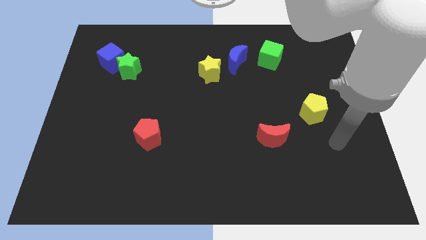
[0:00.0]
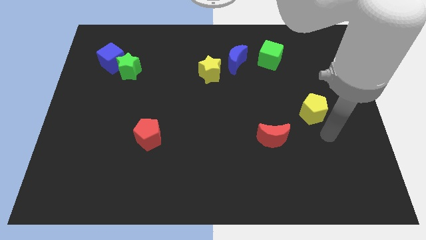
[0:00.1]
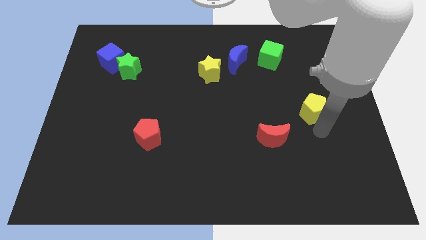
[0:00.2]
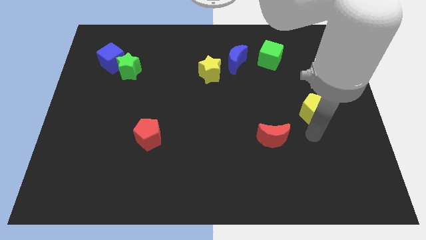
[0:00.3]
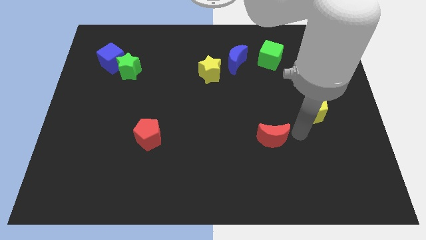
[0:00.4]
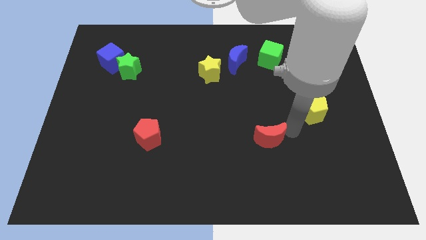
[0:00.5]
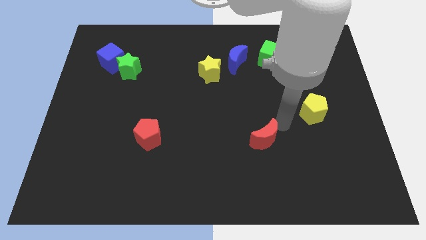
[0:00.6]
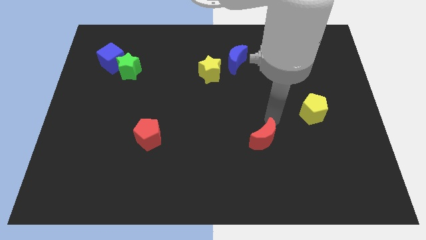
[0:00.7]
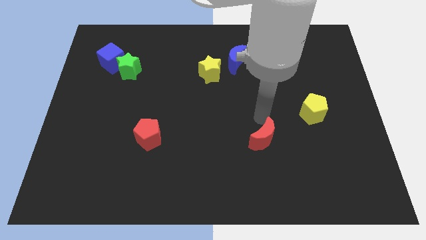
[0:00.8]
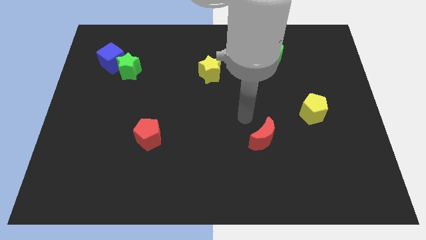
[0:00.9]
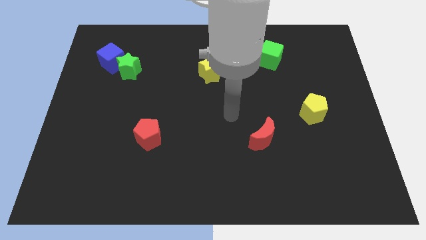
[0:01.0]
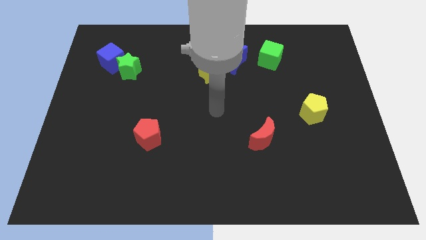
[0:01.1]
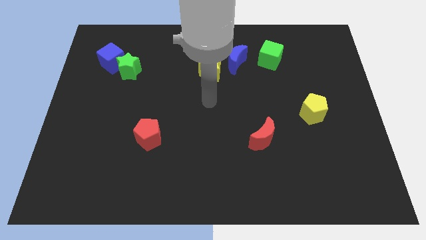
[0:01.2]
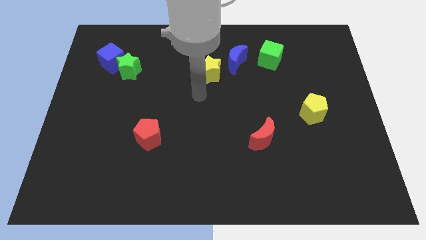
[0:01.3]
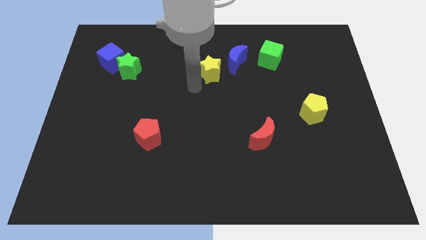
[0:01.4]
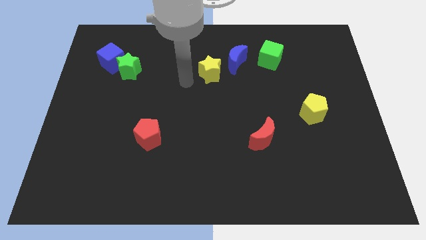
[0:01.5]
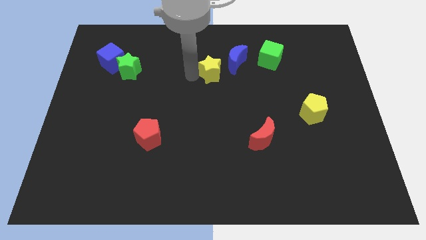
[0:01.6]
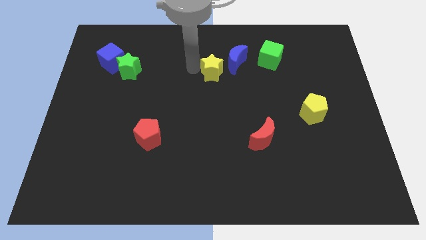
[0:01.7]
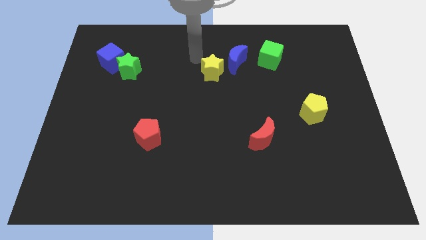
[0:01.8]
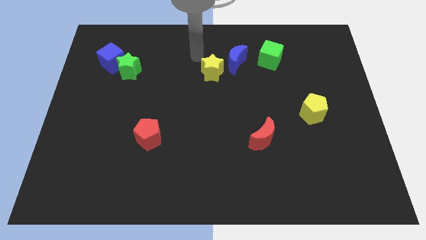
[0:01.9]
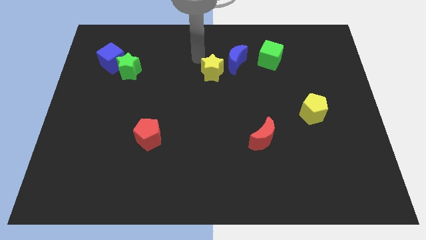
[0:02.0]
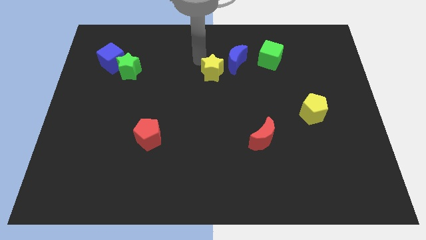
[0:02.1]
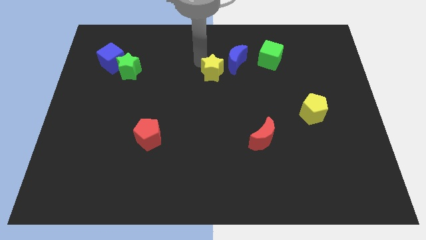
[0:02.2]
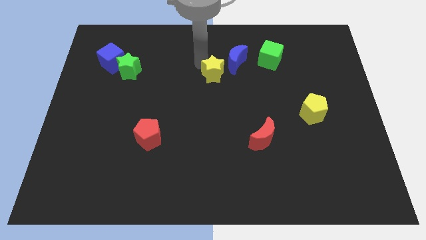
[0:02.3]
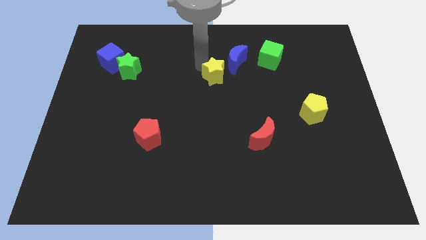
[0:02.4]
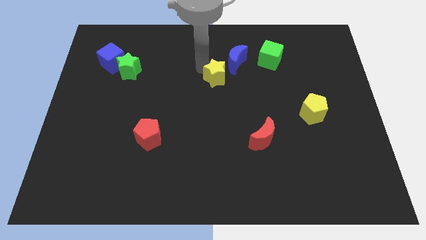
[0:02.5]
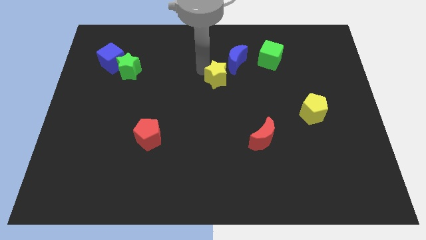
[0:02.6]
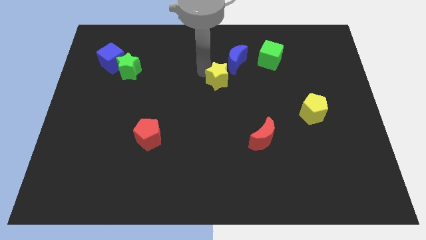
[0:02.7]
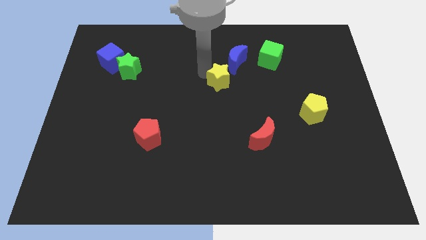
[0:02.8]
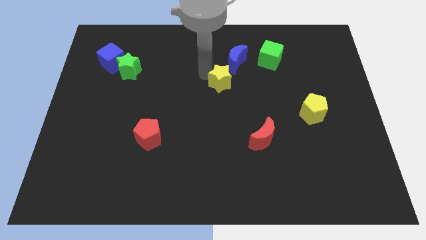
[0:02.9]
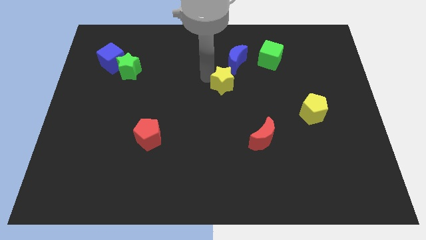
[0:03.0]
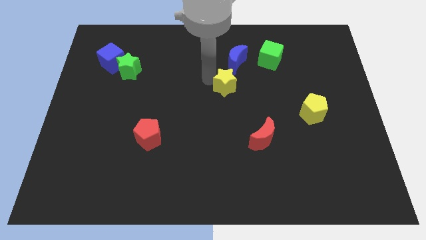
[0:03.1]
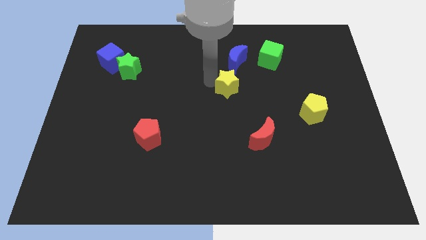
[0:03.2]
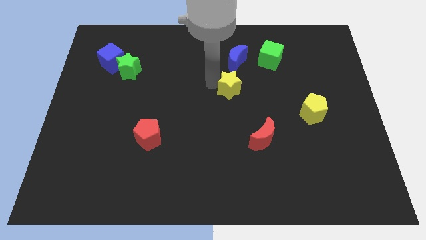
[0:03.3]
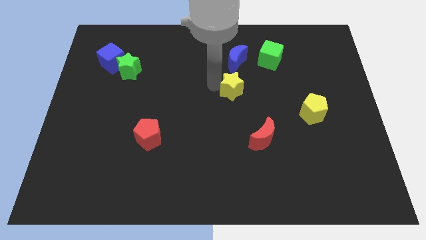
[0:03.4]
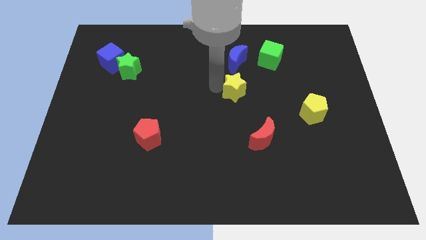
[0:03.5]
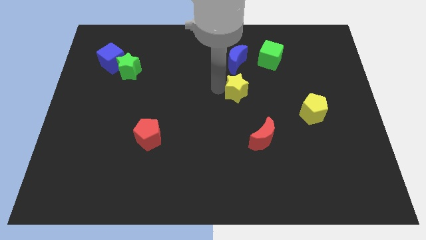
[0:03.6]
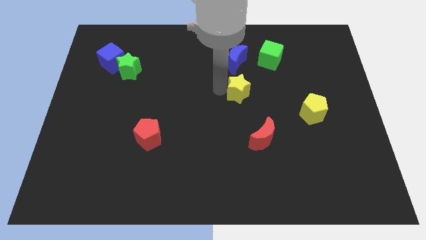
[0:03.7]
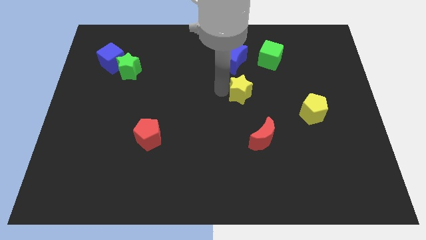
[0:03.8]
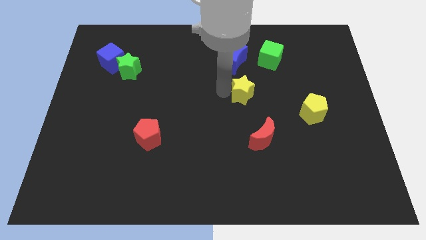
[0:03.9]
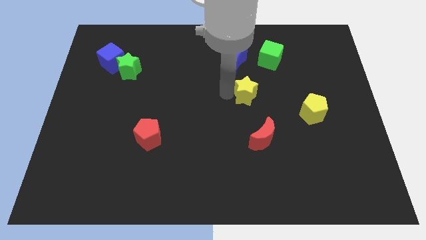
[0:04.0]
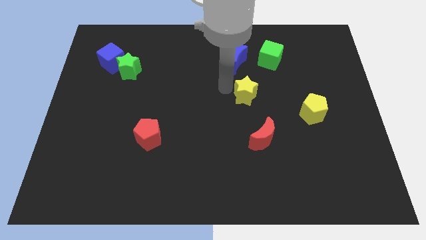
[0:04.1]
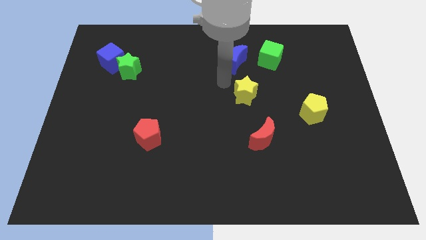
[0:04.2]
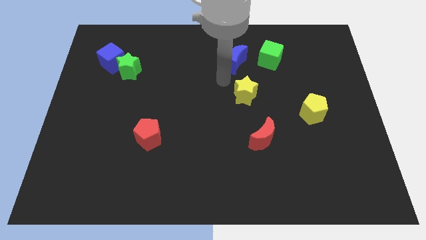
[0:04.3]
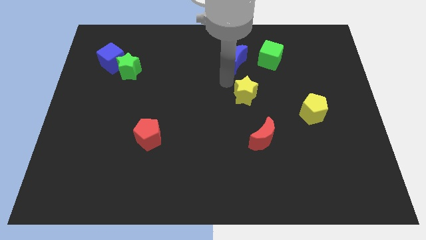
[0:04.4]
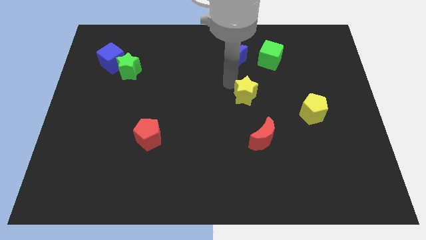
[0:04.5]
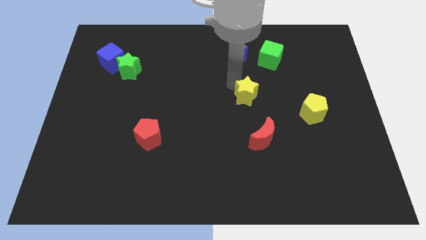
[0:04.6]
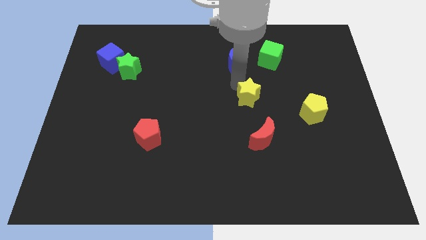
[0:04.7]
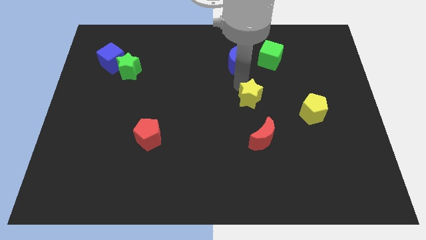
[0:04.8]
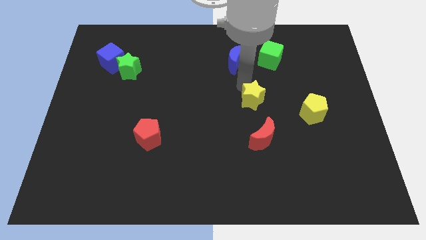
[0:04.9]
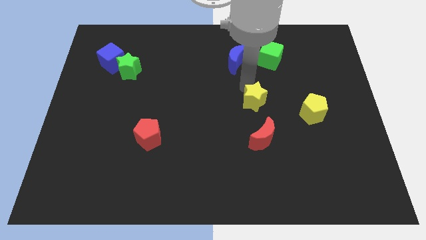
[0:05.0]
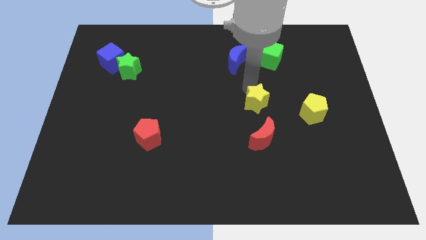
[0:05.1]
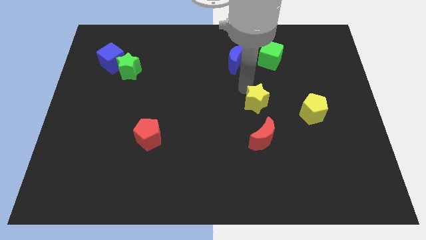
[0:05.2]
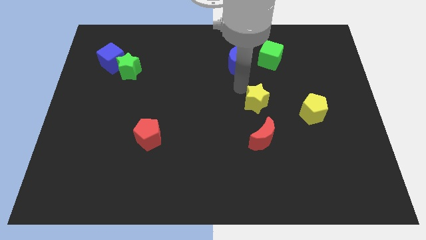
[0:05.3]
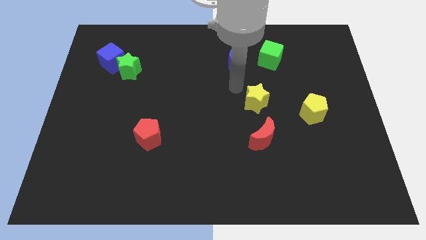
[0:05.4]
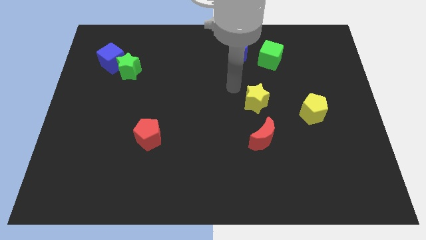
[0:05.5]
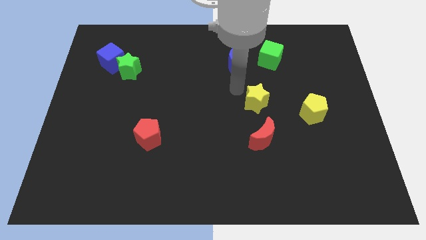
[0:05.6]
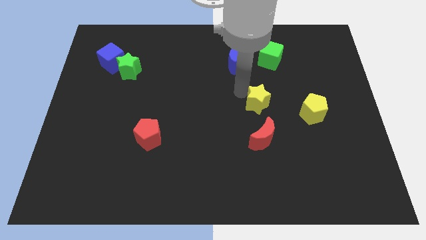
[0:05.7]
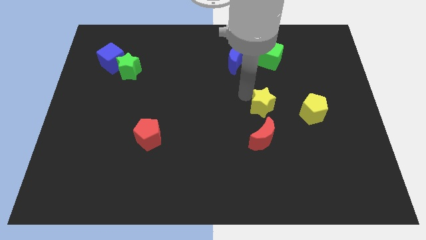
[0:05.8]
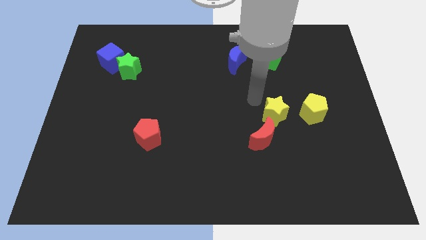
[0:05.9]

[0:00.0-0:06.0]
move the yellow star down and right diagonally

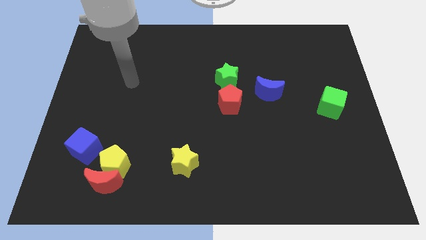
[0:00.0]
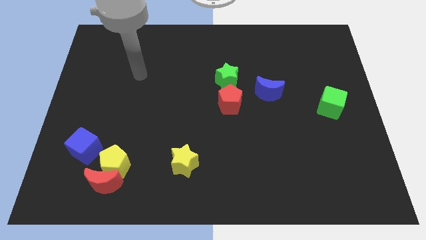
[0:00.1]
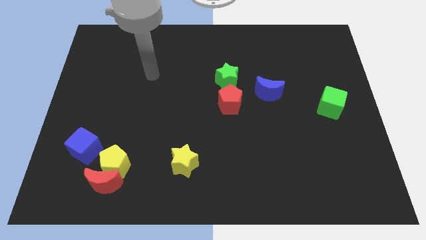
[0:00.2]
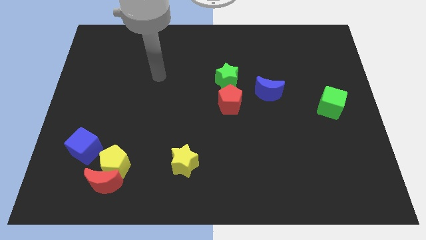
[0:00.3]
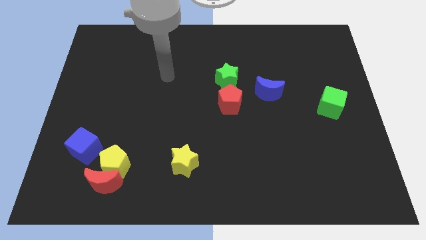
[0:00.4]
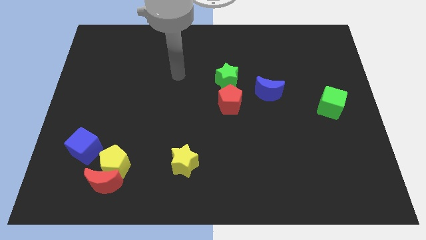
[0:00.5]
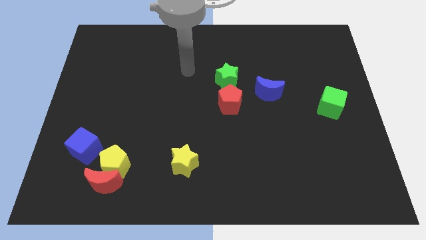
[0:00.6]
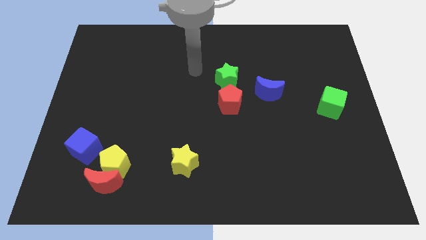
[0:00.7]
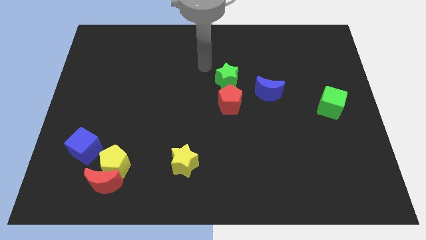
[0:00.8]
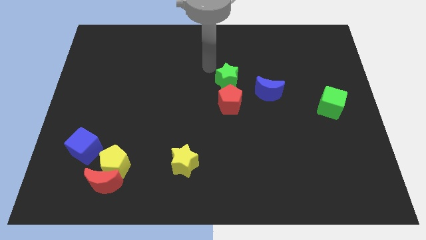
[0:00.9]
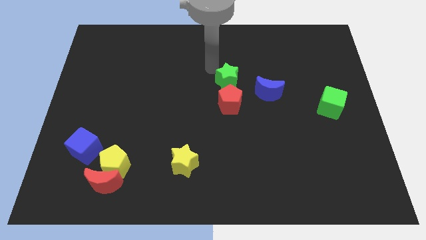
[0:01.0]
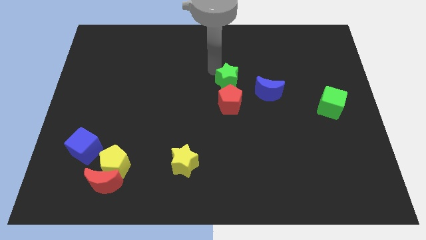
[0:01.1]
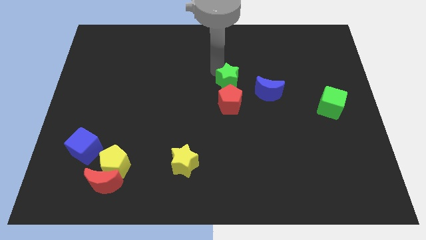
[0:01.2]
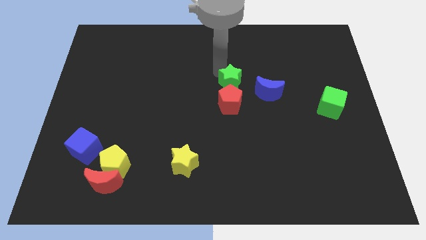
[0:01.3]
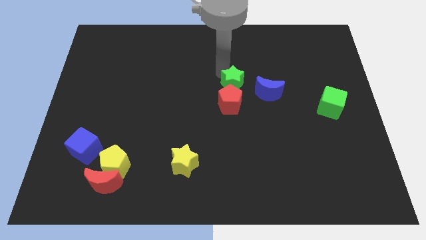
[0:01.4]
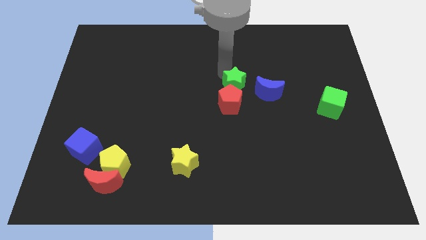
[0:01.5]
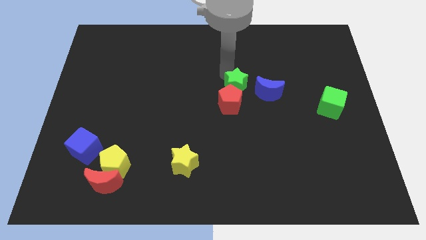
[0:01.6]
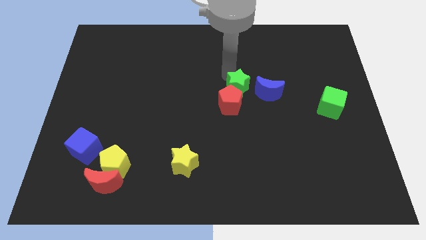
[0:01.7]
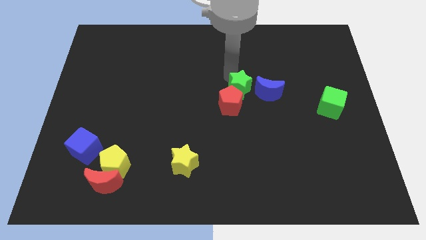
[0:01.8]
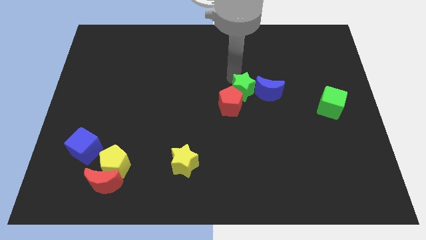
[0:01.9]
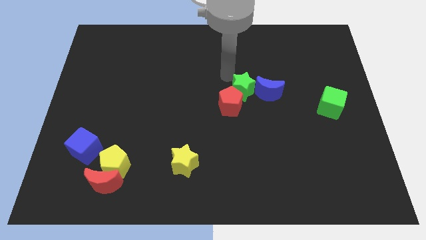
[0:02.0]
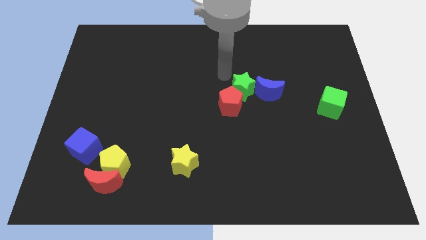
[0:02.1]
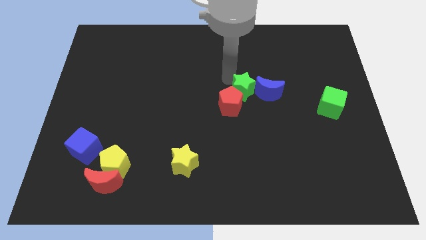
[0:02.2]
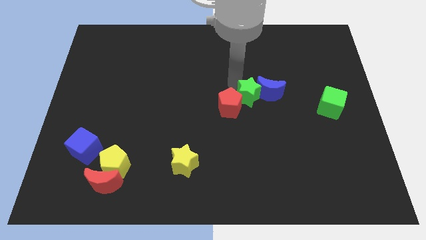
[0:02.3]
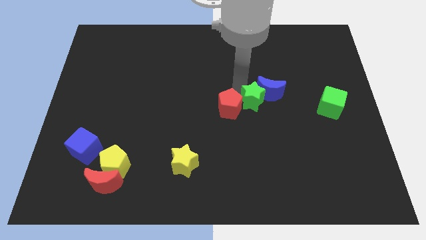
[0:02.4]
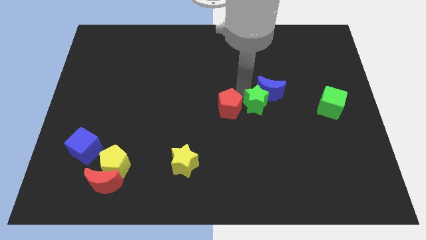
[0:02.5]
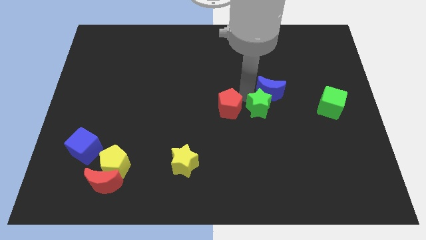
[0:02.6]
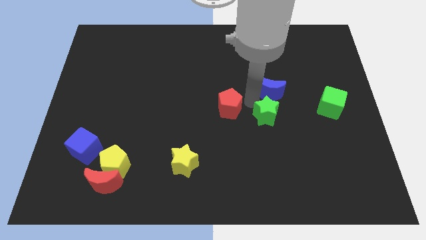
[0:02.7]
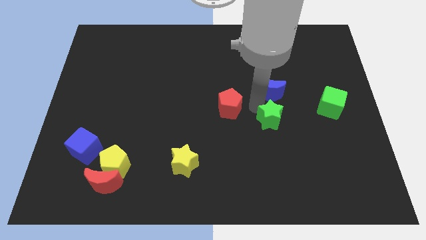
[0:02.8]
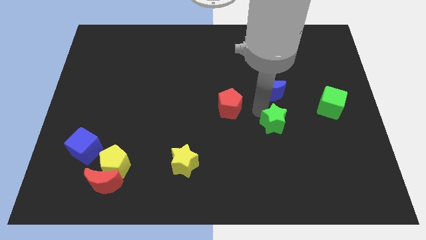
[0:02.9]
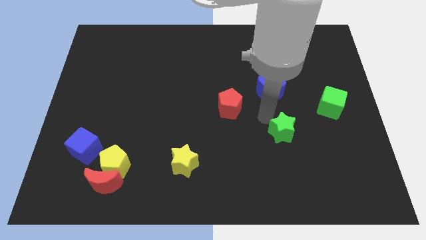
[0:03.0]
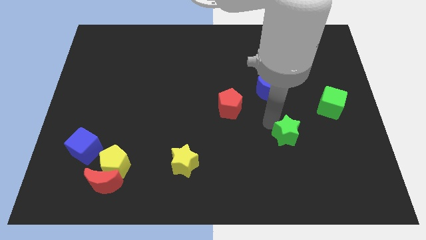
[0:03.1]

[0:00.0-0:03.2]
slide the green star down and then to the right
